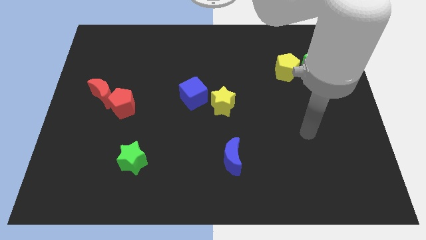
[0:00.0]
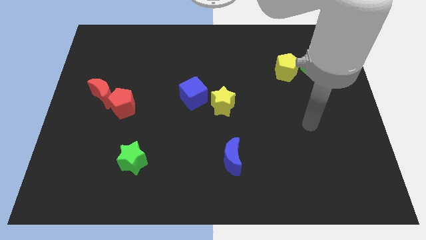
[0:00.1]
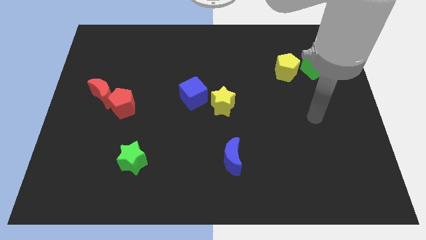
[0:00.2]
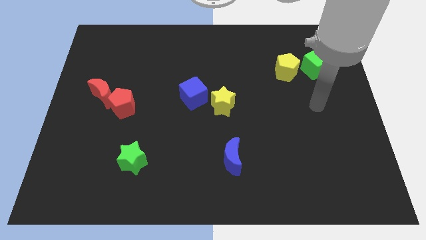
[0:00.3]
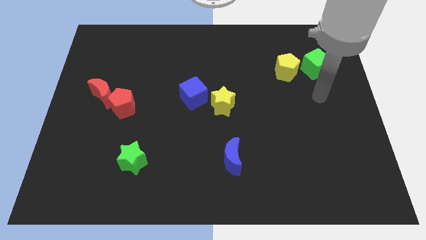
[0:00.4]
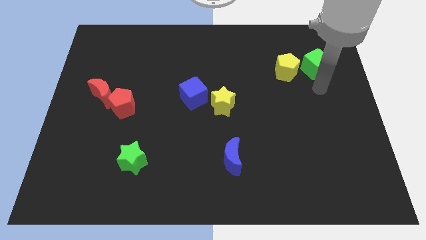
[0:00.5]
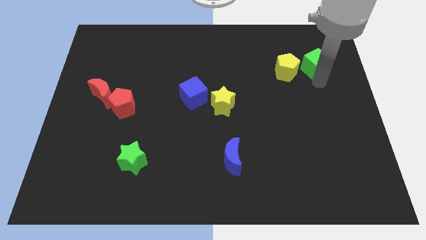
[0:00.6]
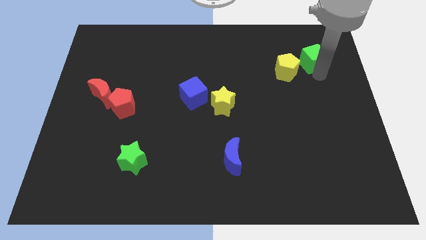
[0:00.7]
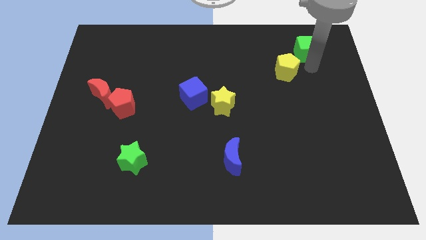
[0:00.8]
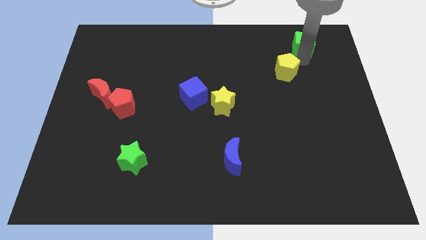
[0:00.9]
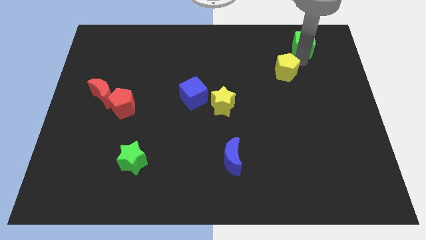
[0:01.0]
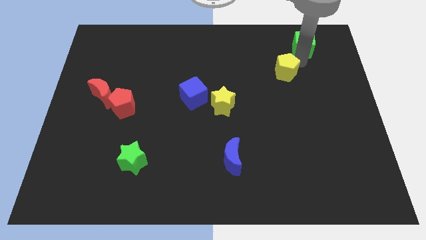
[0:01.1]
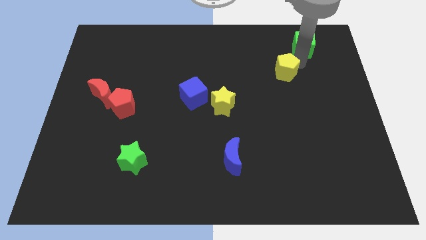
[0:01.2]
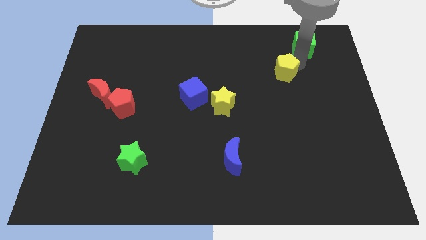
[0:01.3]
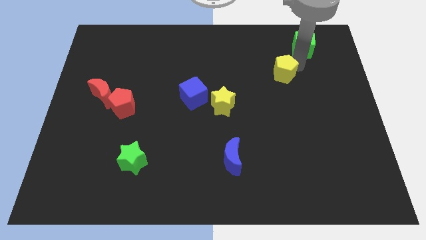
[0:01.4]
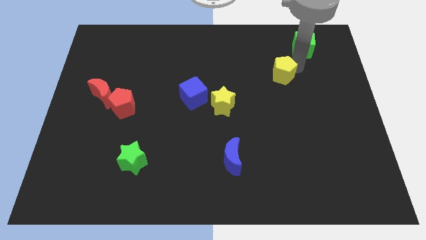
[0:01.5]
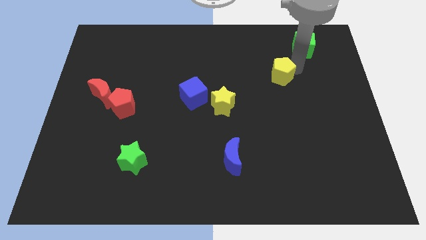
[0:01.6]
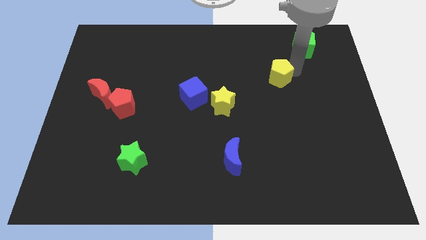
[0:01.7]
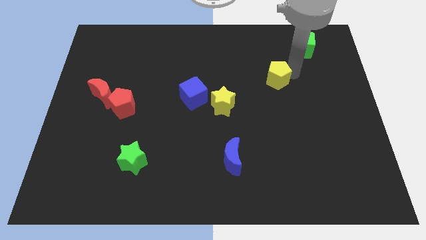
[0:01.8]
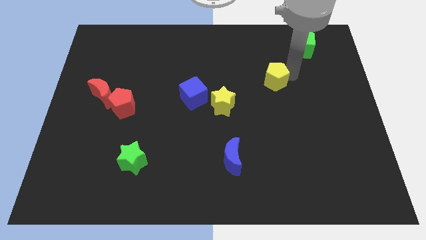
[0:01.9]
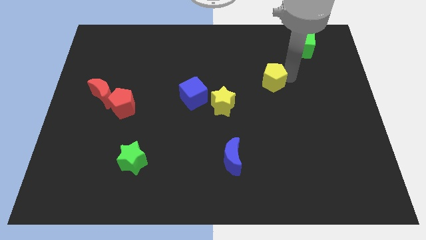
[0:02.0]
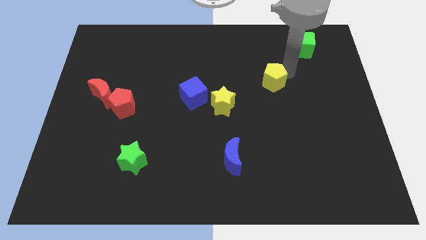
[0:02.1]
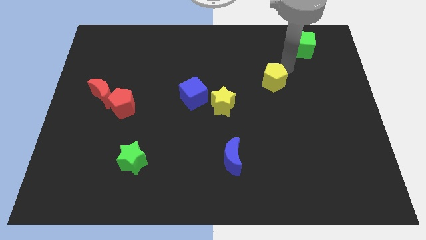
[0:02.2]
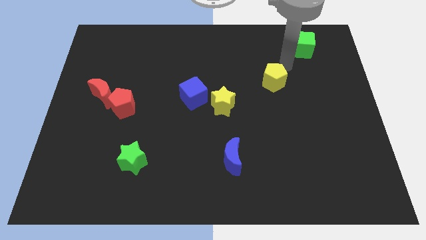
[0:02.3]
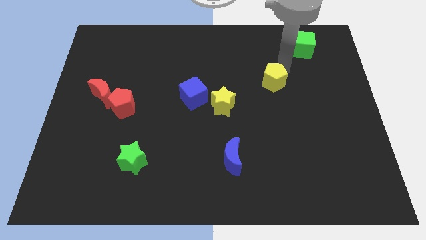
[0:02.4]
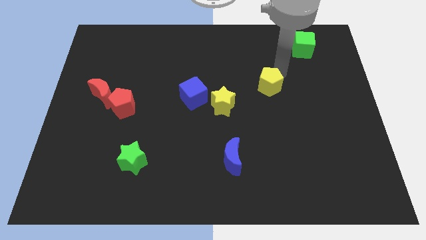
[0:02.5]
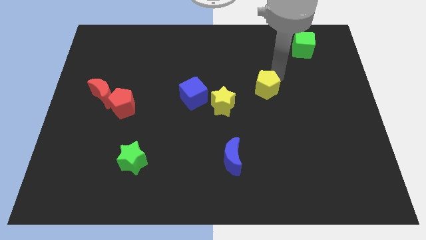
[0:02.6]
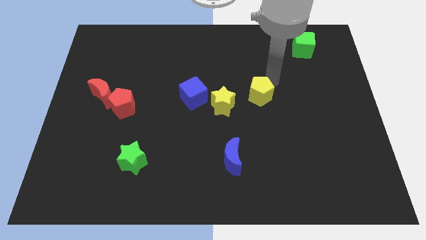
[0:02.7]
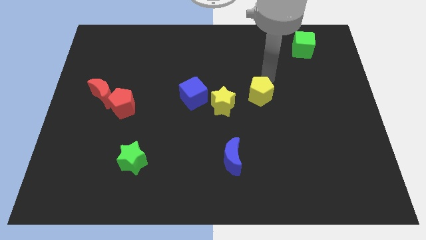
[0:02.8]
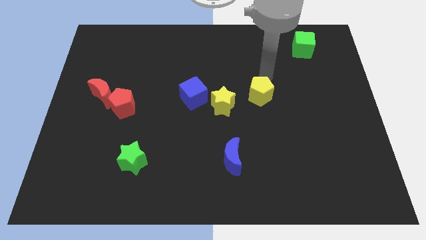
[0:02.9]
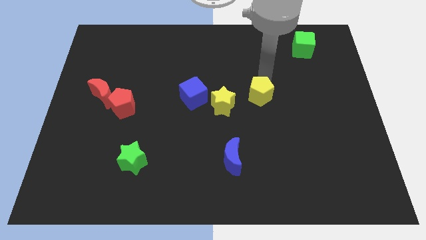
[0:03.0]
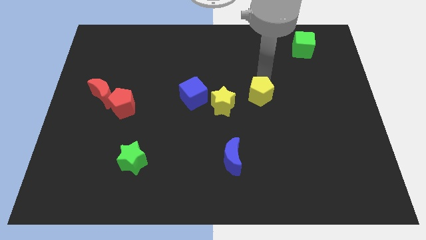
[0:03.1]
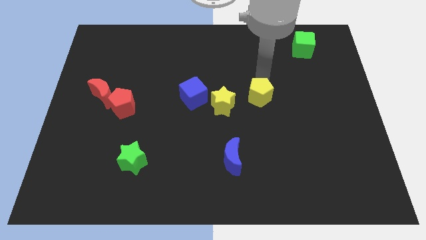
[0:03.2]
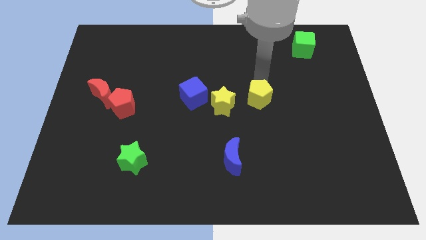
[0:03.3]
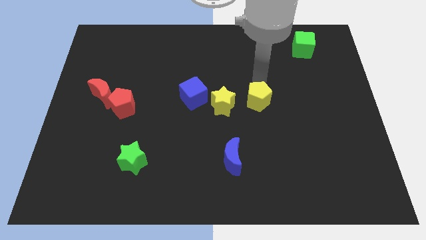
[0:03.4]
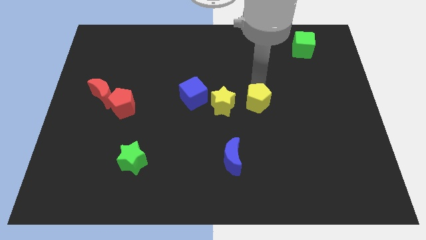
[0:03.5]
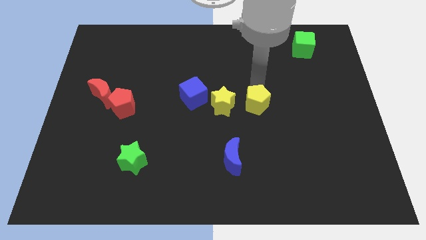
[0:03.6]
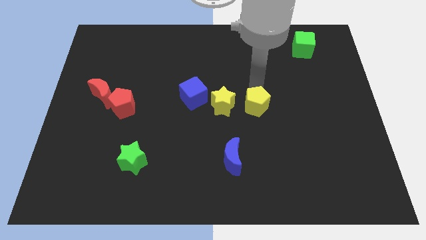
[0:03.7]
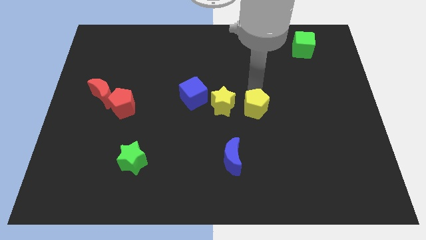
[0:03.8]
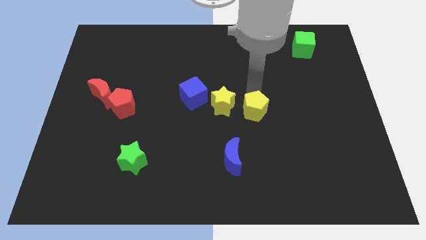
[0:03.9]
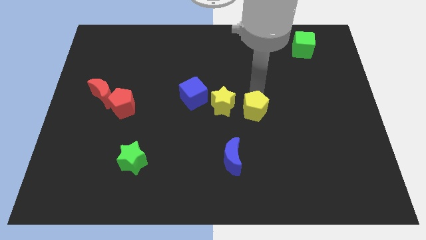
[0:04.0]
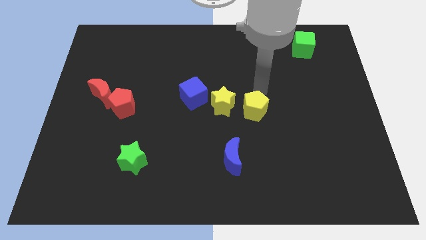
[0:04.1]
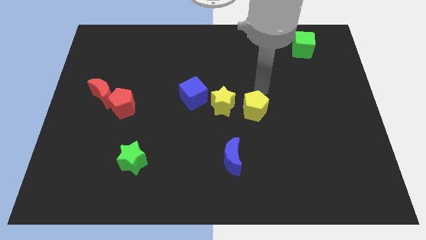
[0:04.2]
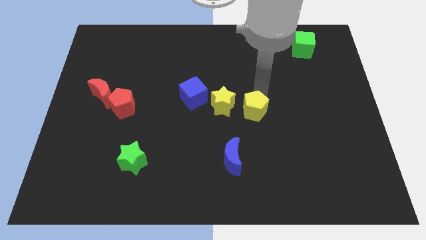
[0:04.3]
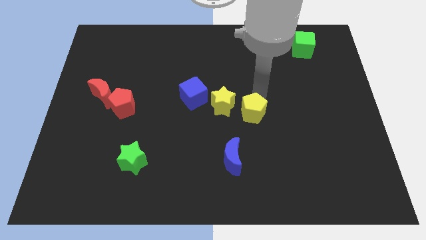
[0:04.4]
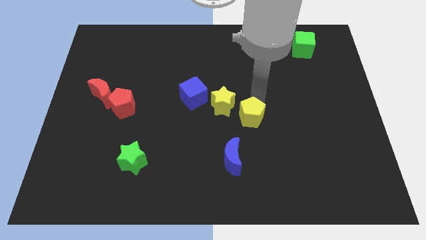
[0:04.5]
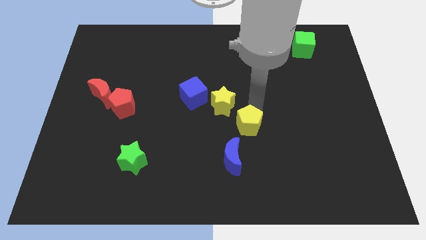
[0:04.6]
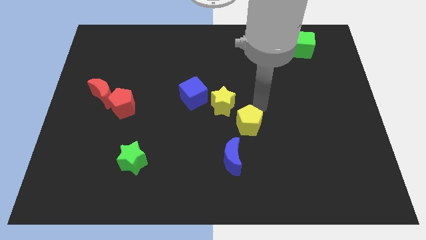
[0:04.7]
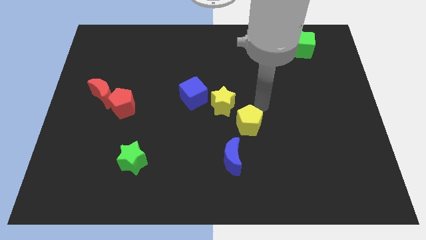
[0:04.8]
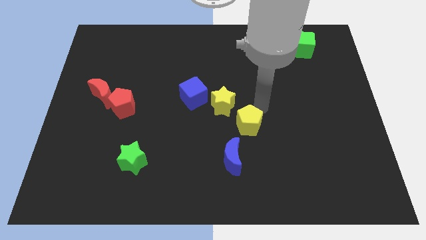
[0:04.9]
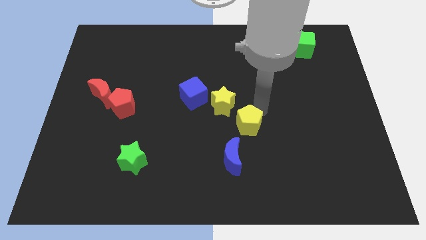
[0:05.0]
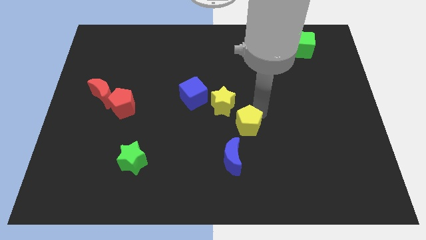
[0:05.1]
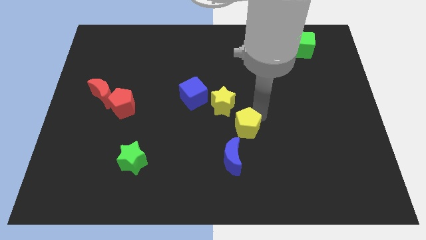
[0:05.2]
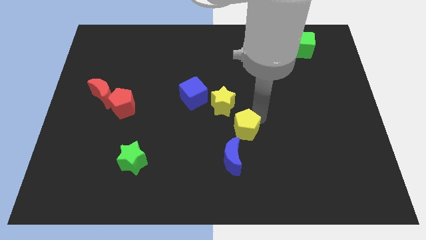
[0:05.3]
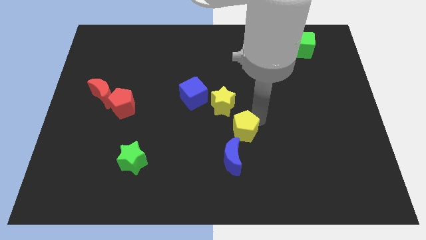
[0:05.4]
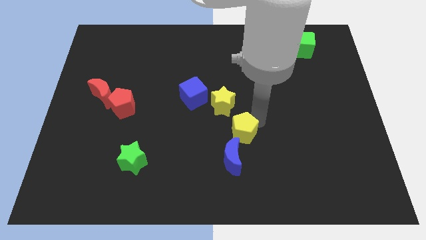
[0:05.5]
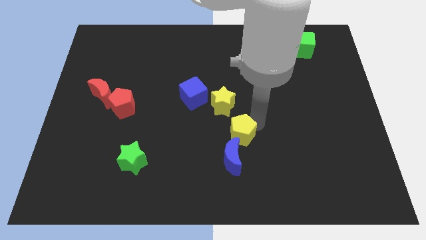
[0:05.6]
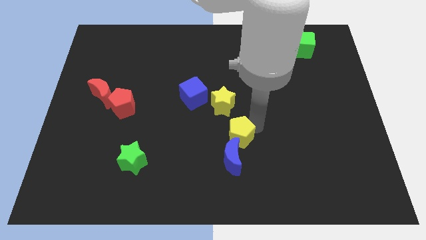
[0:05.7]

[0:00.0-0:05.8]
put the yellow pentagon next to the blue moon

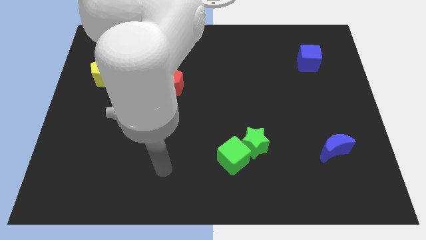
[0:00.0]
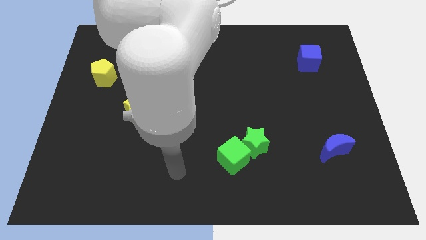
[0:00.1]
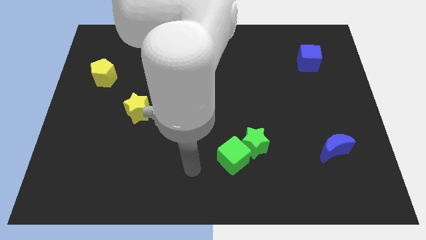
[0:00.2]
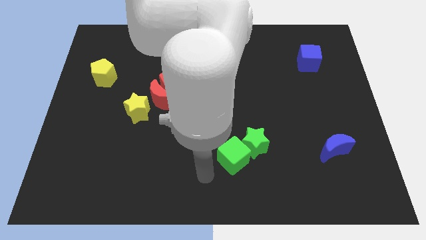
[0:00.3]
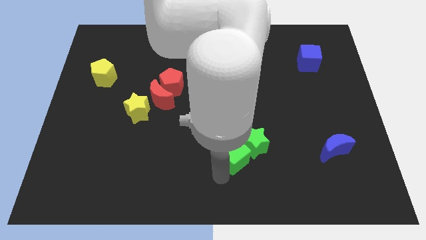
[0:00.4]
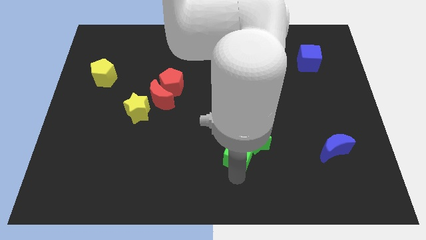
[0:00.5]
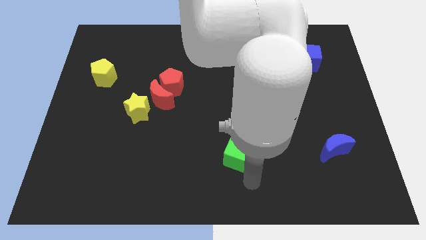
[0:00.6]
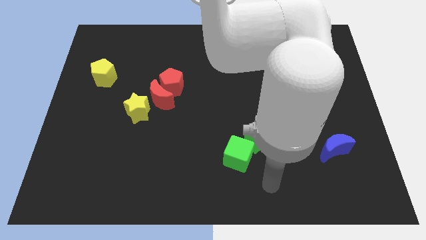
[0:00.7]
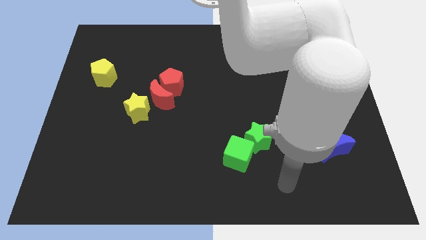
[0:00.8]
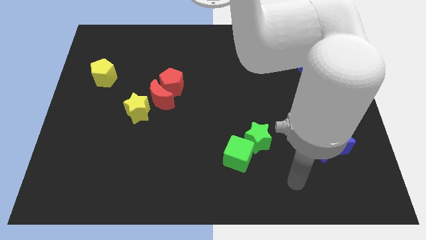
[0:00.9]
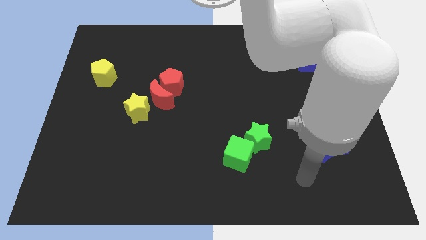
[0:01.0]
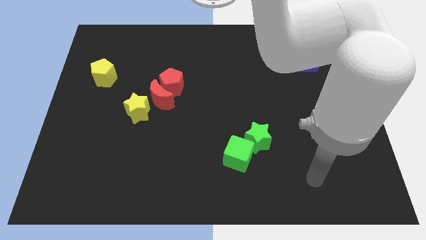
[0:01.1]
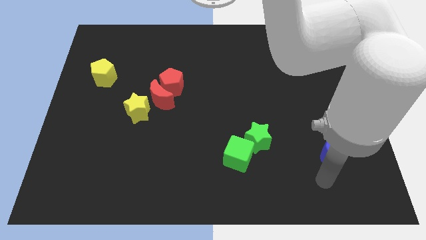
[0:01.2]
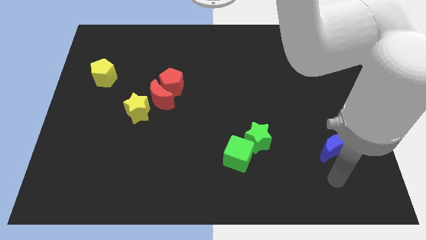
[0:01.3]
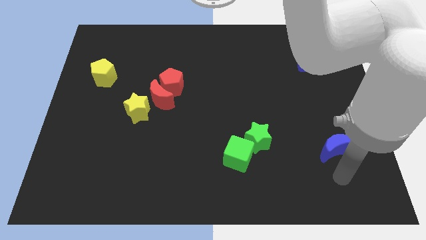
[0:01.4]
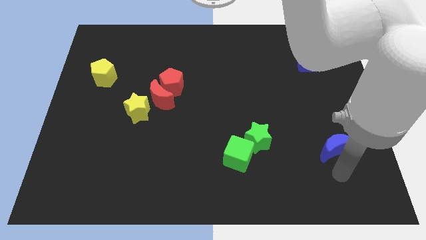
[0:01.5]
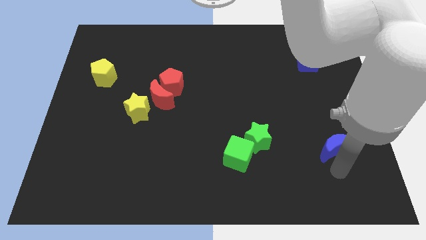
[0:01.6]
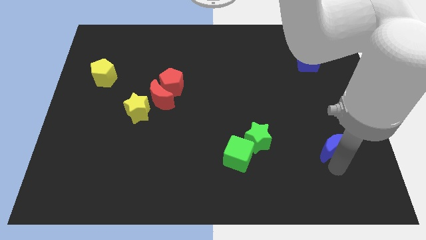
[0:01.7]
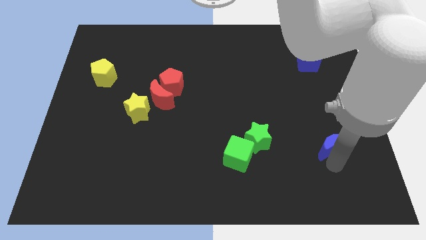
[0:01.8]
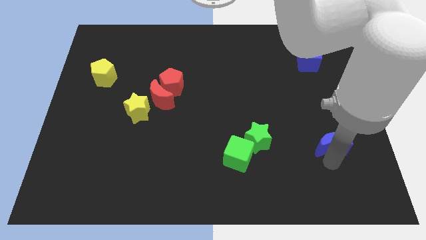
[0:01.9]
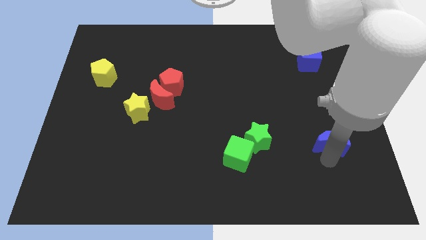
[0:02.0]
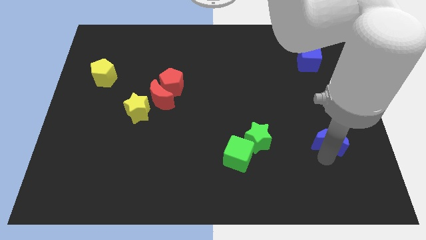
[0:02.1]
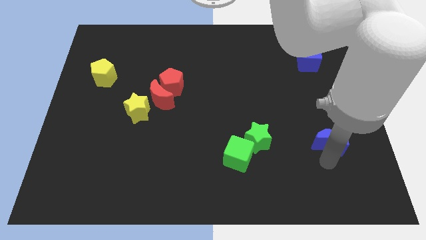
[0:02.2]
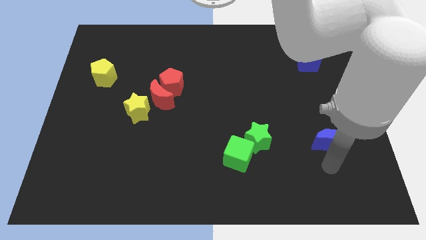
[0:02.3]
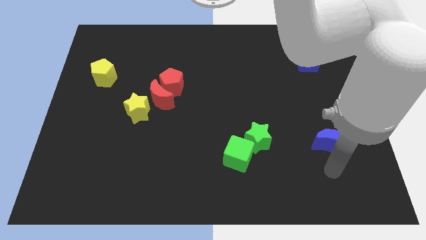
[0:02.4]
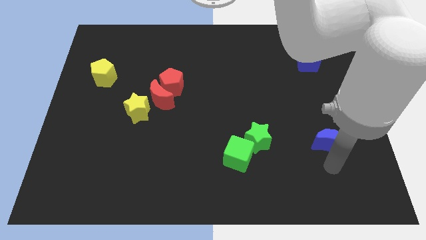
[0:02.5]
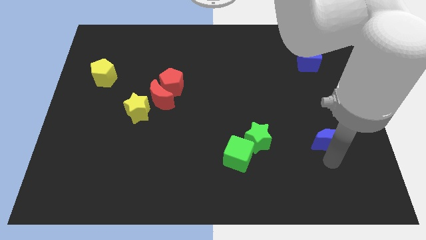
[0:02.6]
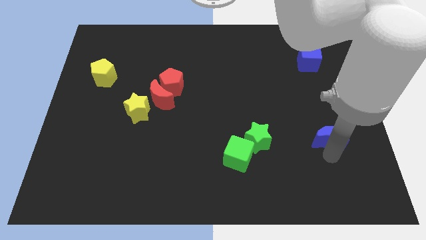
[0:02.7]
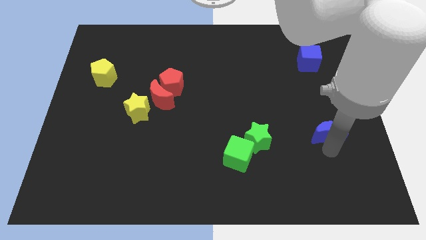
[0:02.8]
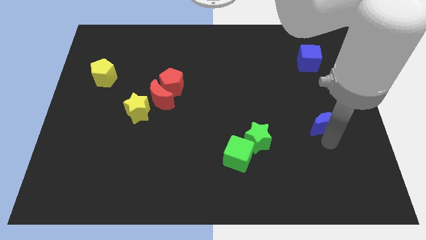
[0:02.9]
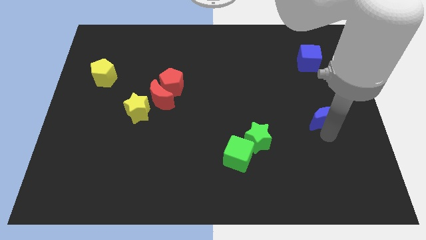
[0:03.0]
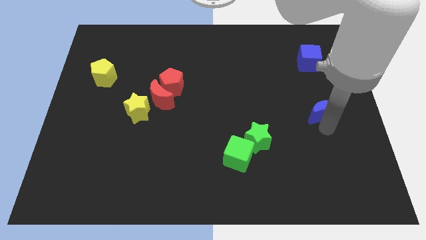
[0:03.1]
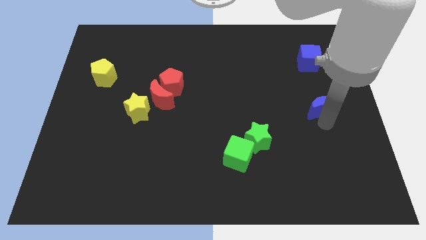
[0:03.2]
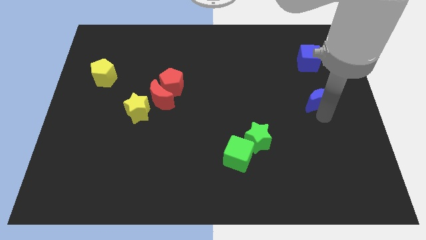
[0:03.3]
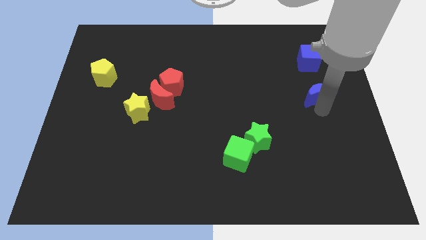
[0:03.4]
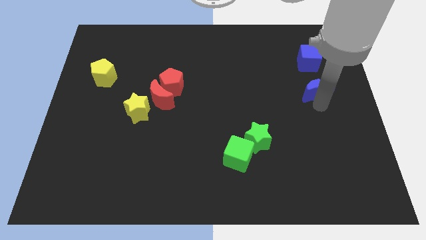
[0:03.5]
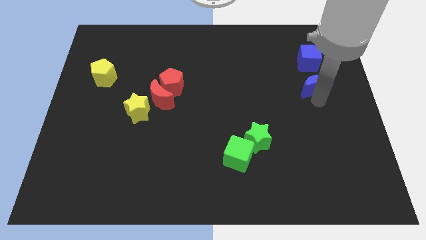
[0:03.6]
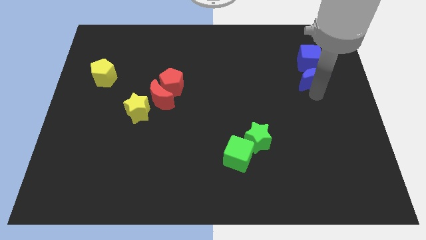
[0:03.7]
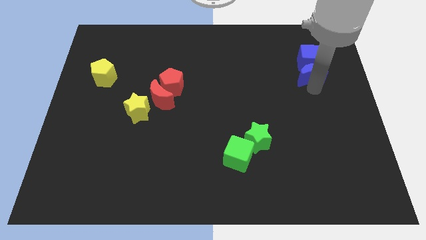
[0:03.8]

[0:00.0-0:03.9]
move the blue moon towards the blue cube
